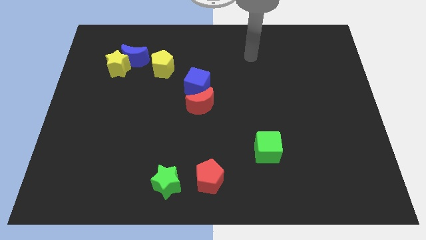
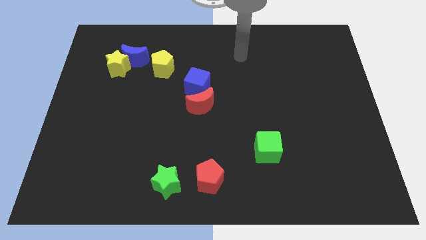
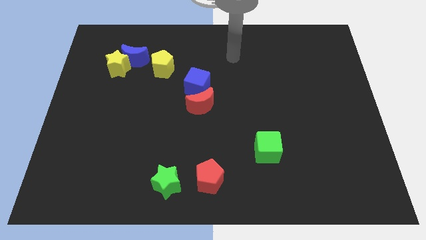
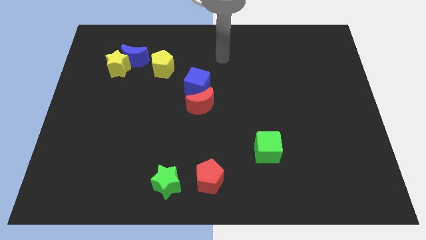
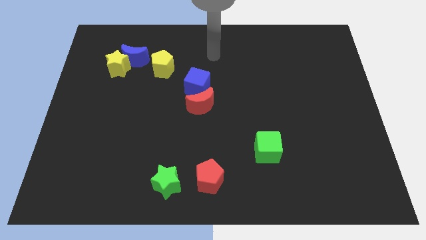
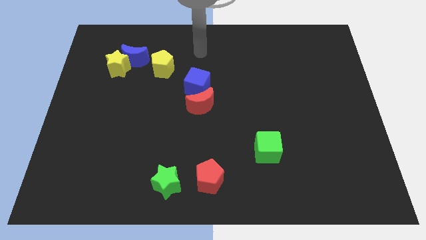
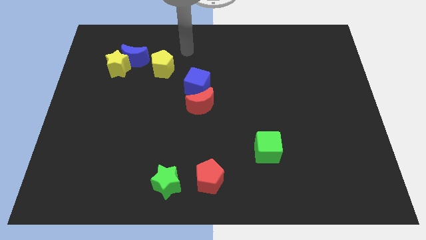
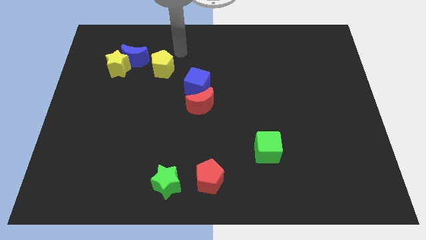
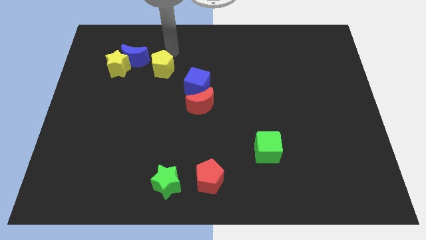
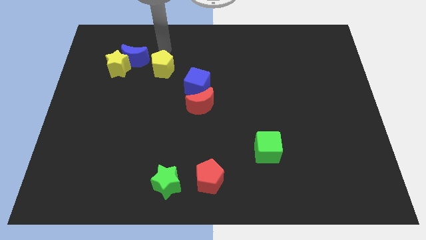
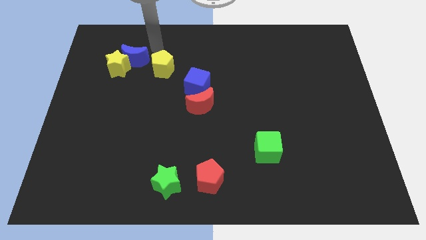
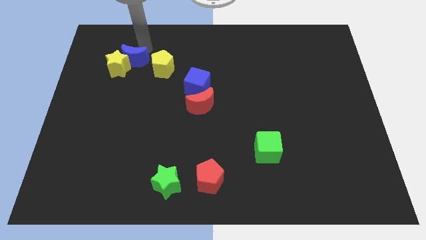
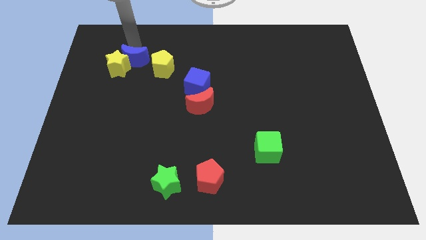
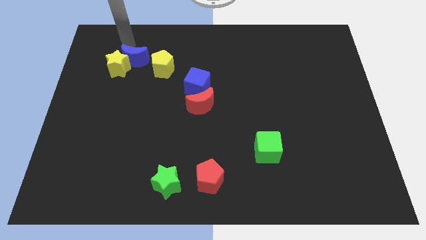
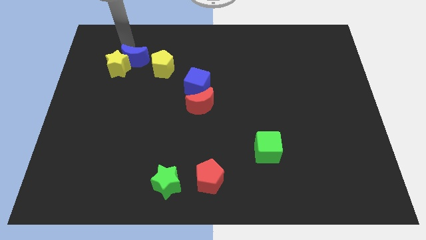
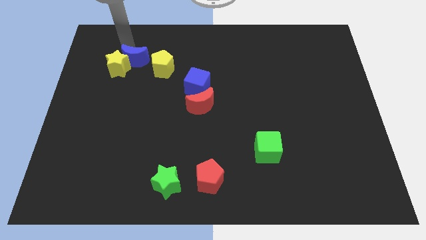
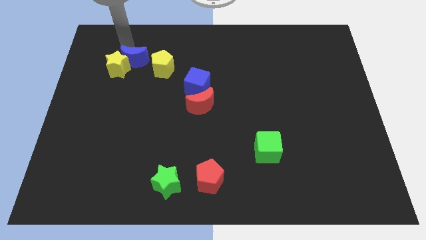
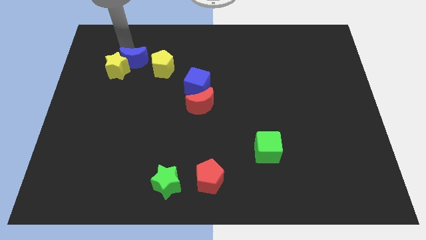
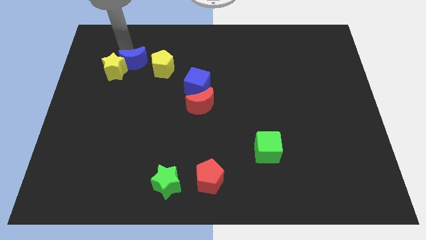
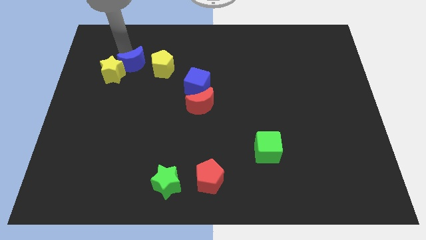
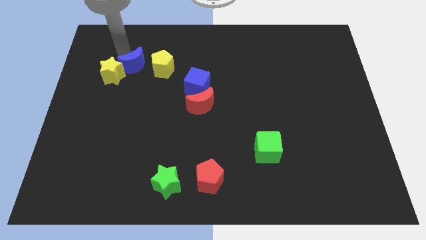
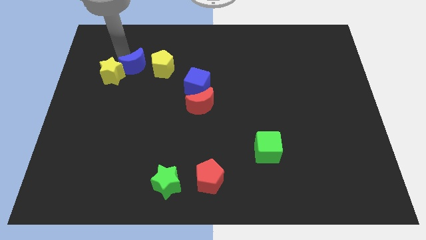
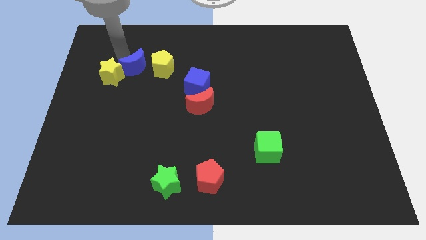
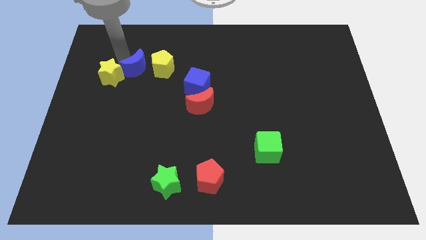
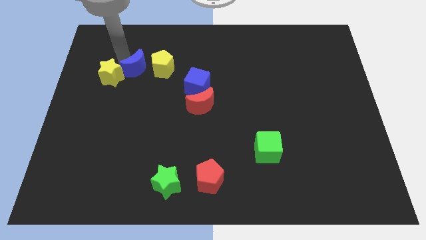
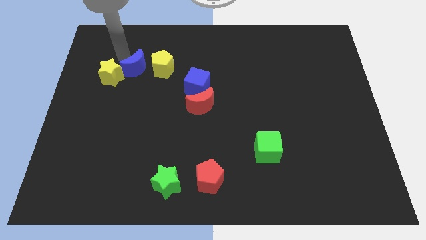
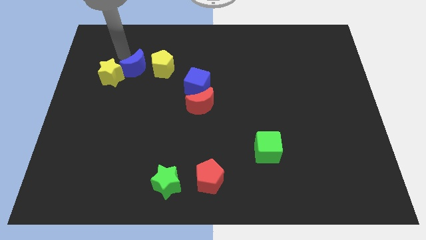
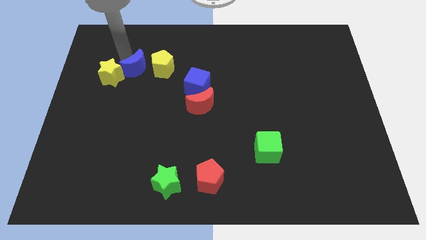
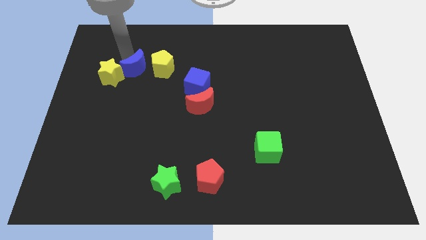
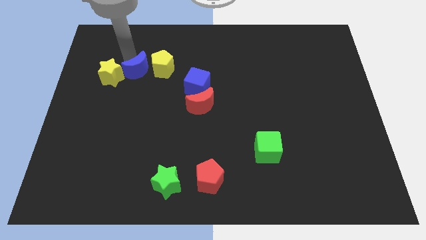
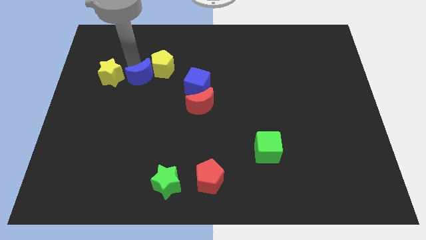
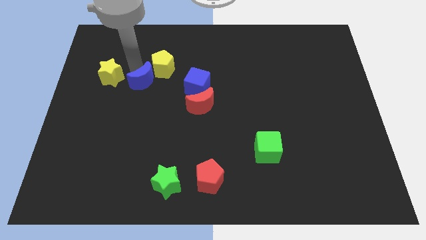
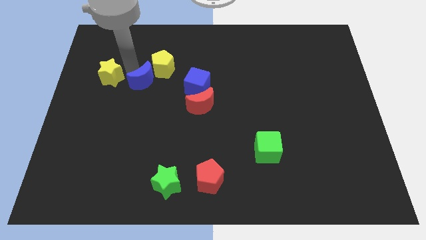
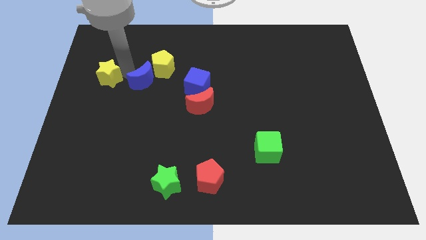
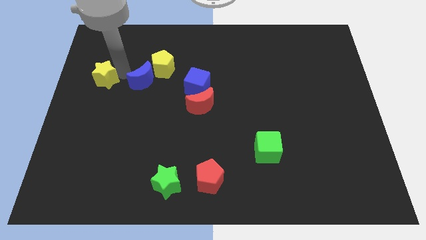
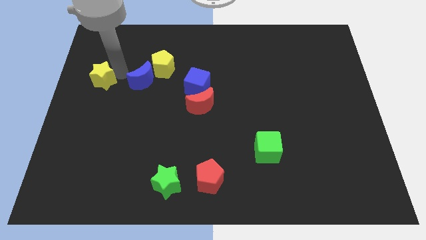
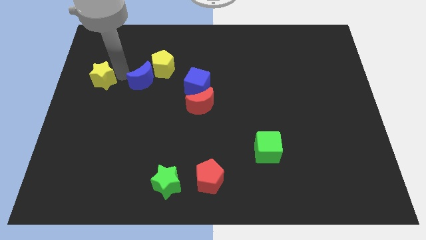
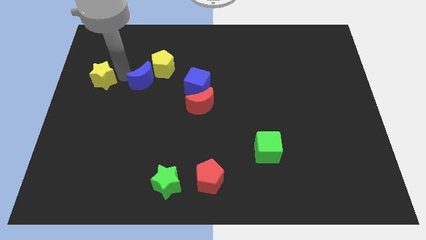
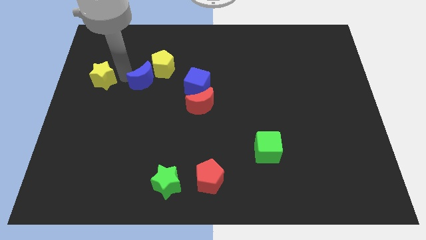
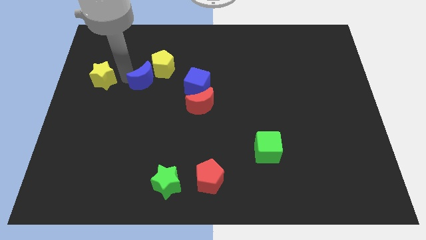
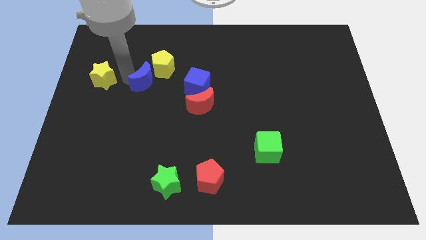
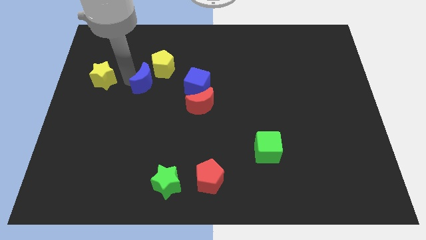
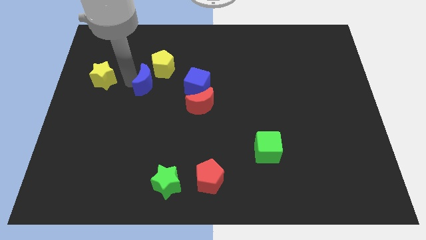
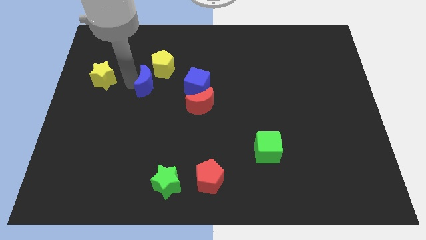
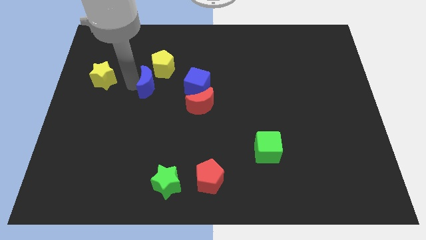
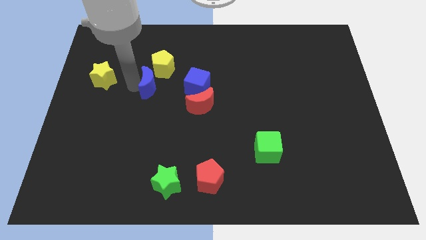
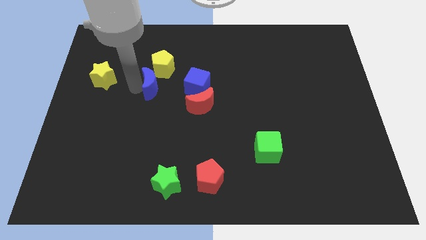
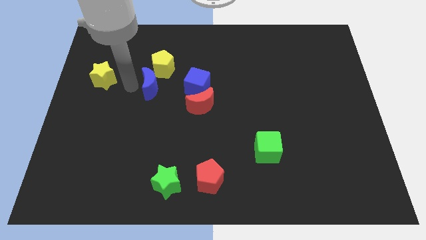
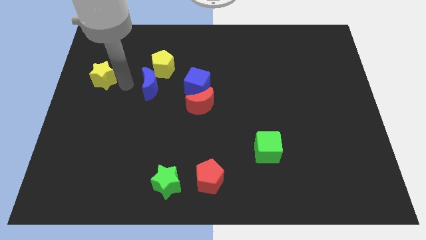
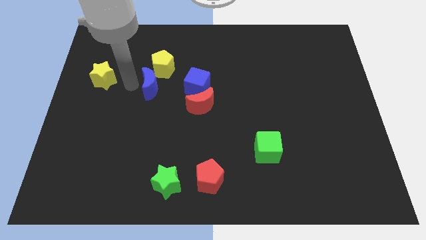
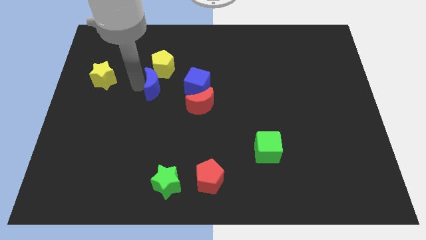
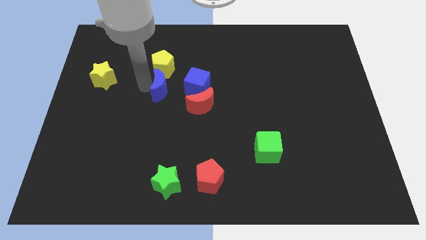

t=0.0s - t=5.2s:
move the blue moon to the top left of the red moon

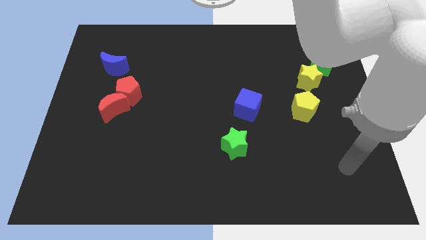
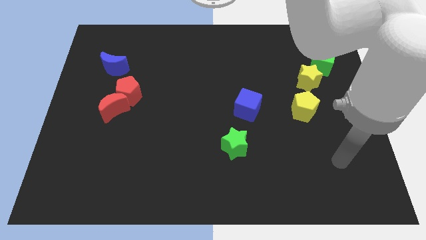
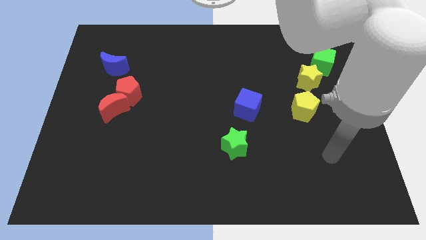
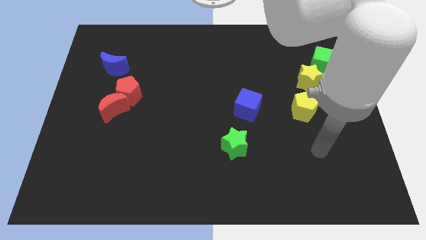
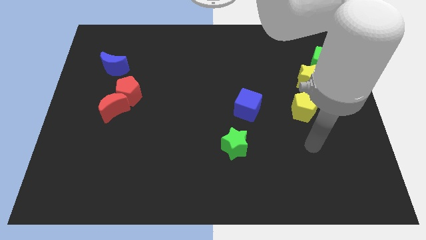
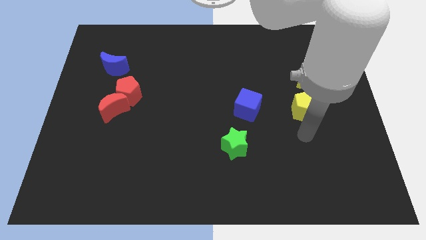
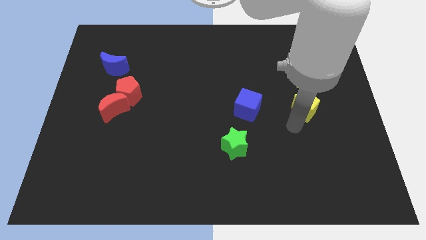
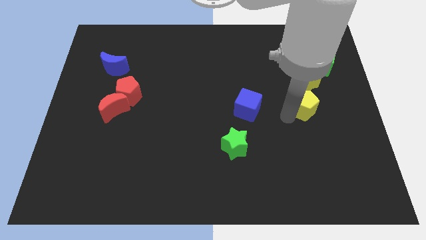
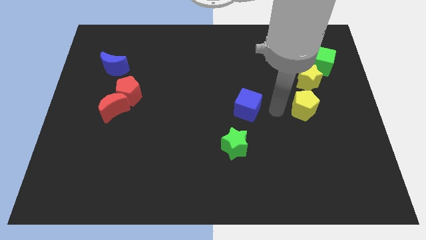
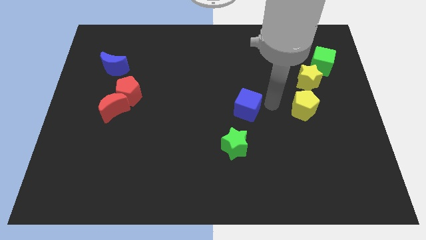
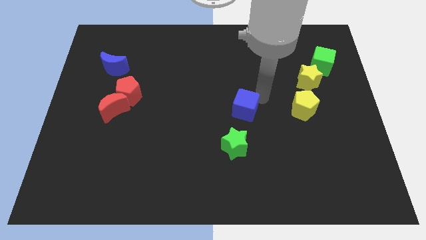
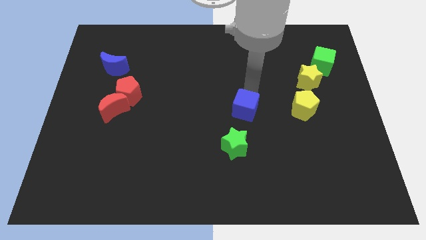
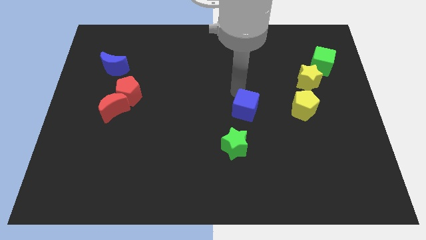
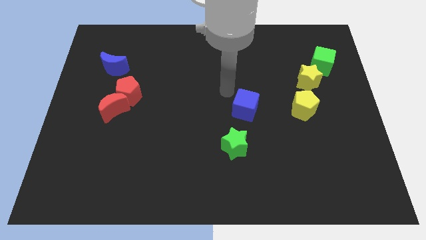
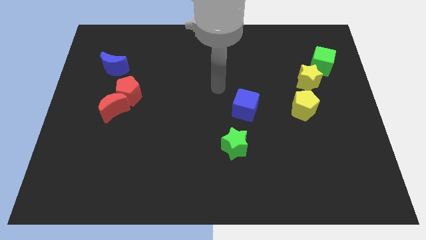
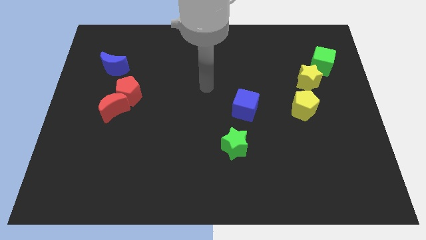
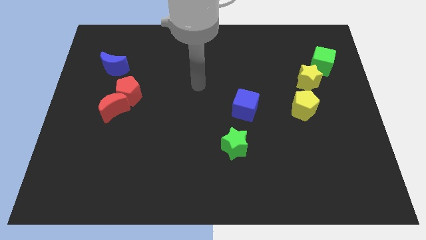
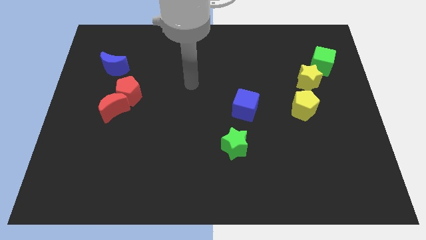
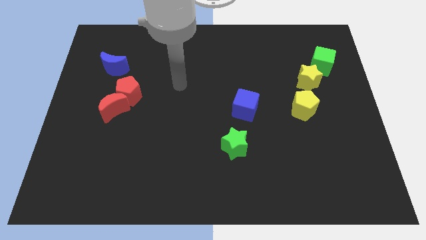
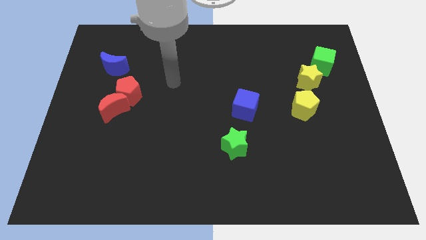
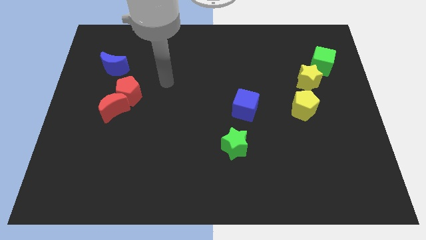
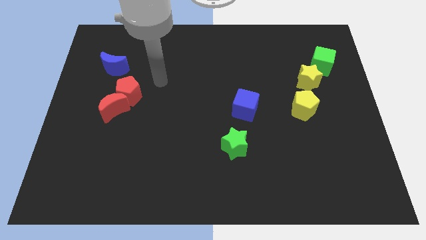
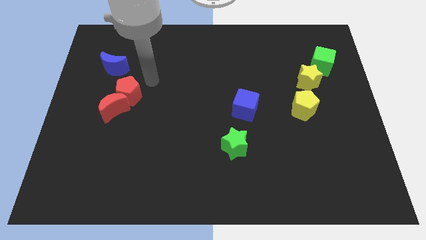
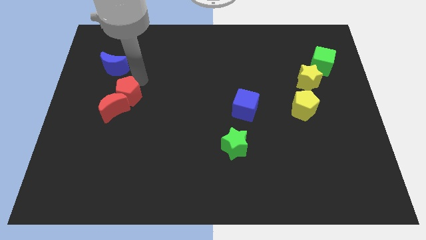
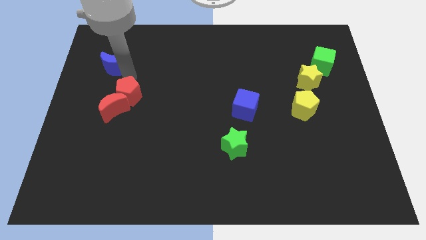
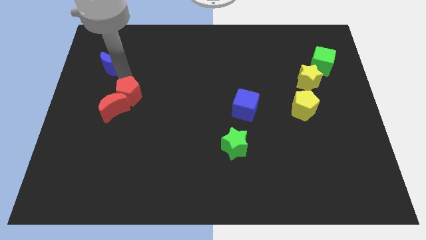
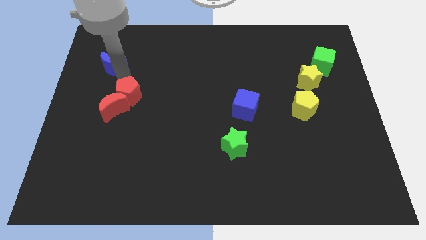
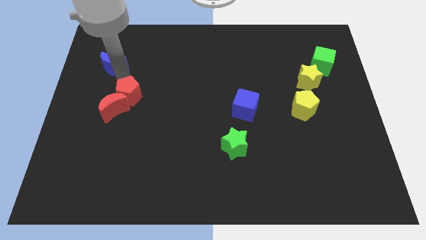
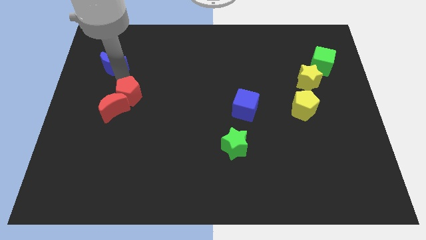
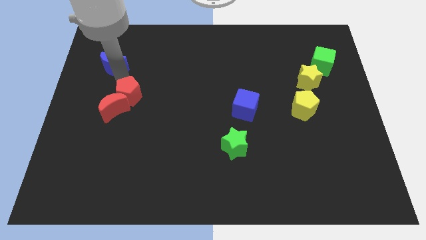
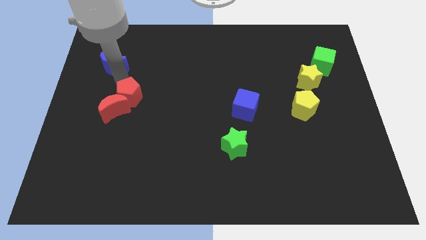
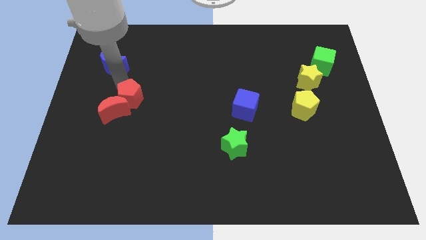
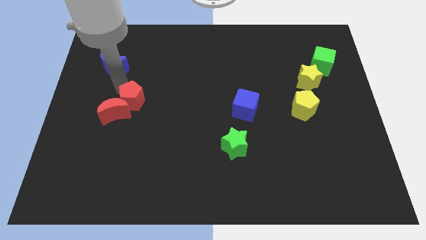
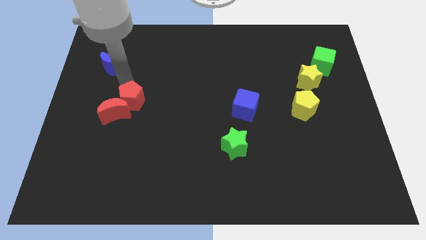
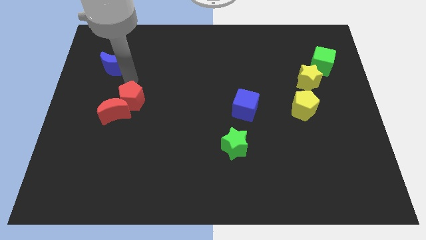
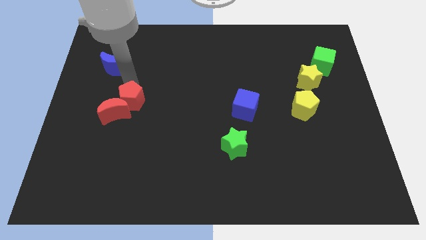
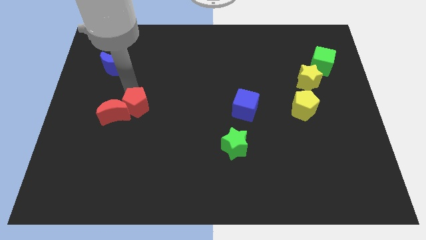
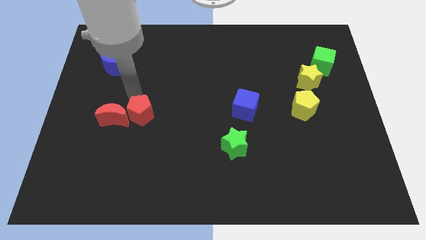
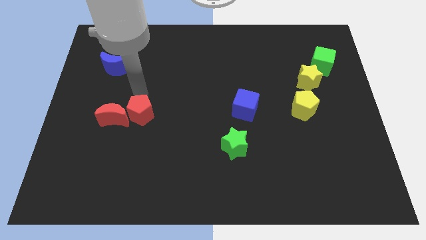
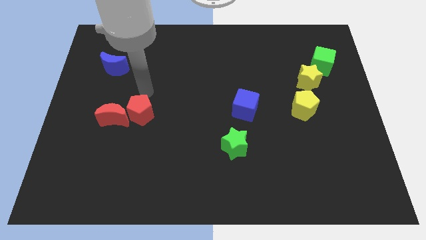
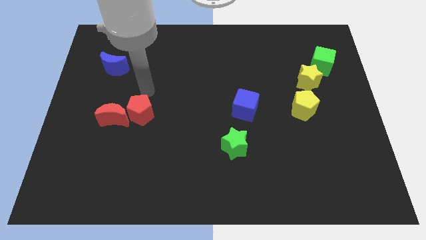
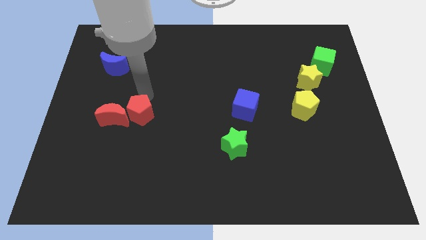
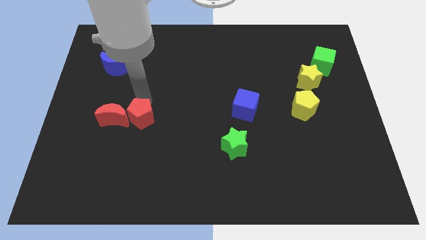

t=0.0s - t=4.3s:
slide the red pentagon to the bottom right side of the red moon
